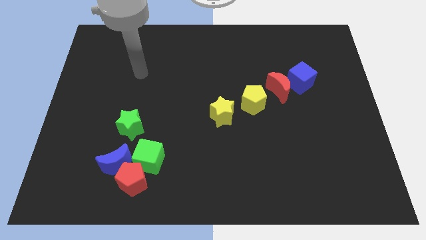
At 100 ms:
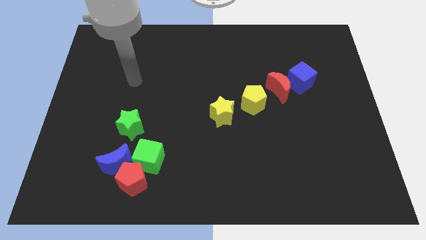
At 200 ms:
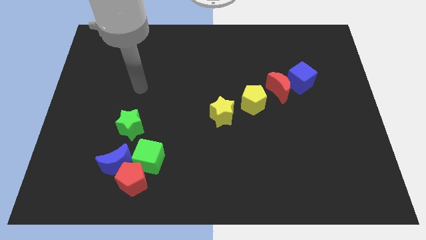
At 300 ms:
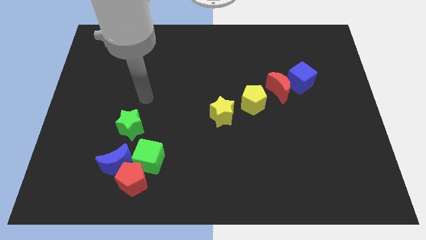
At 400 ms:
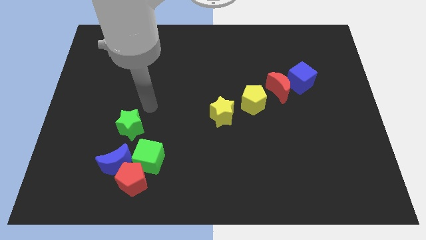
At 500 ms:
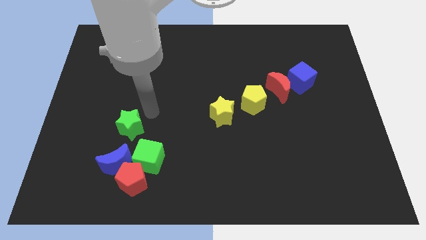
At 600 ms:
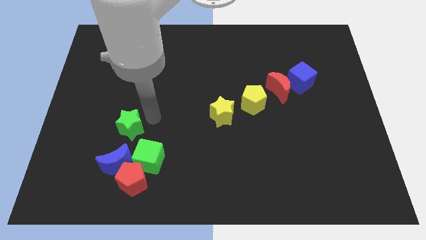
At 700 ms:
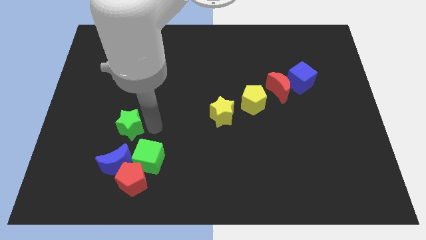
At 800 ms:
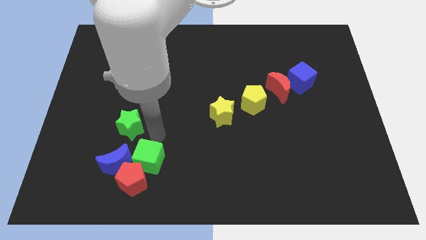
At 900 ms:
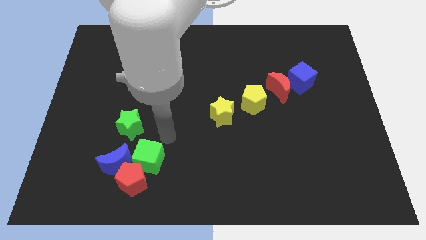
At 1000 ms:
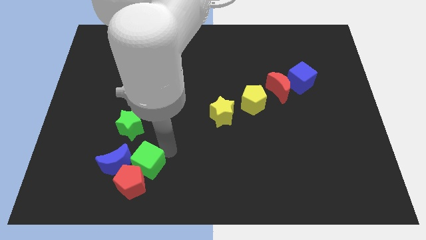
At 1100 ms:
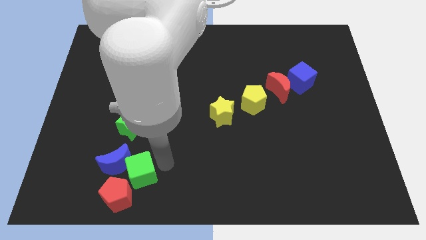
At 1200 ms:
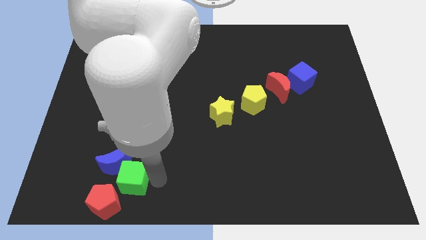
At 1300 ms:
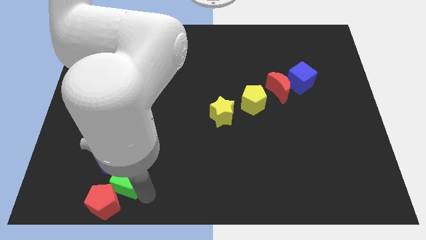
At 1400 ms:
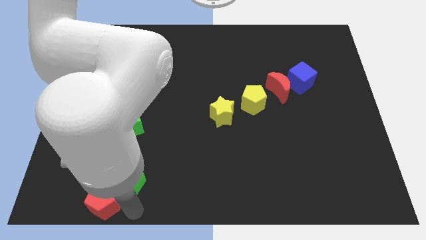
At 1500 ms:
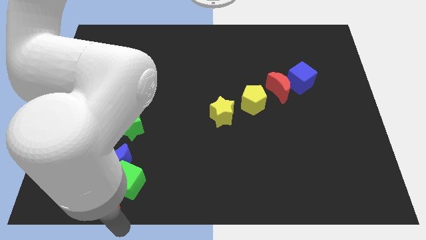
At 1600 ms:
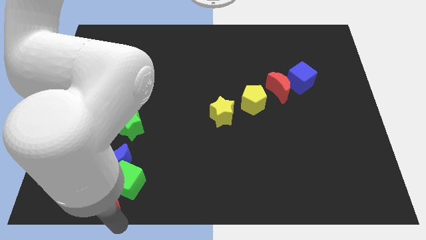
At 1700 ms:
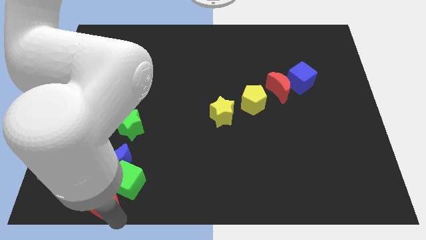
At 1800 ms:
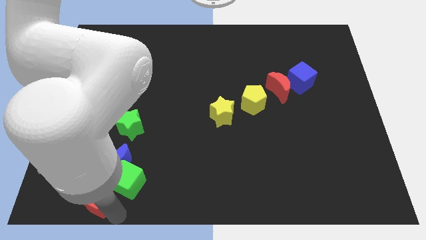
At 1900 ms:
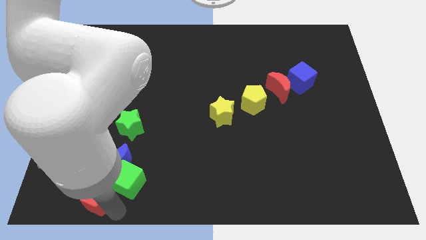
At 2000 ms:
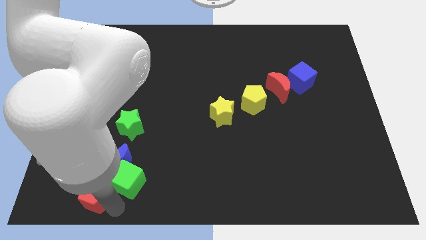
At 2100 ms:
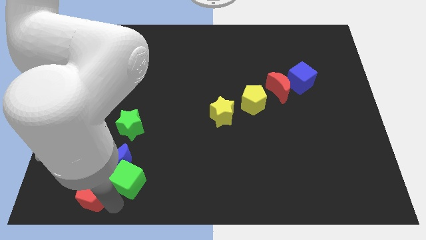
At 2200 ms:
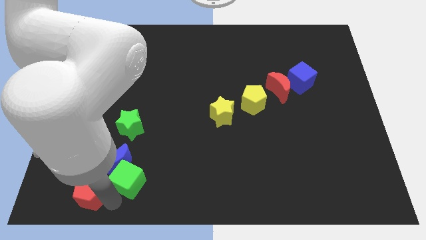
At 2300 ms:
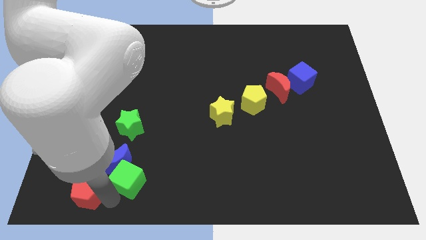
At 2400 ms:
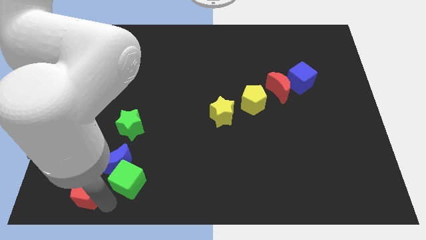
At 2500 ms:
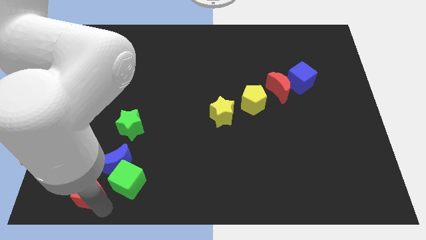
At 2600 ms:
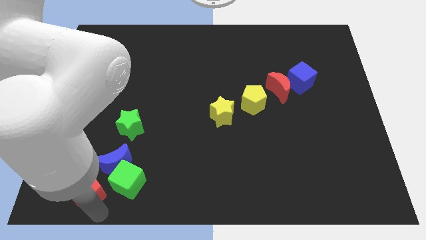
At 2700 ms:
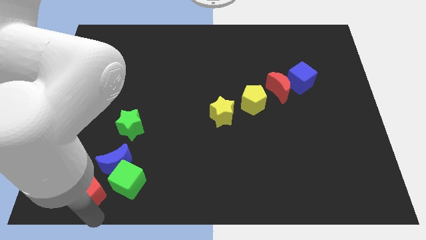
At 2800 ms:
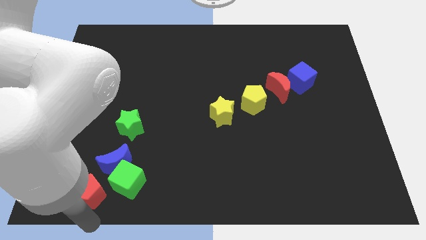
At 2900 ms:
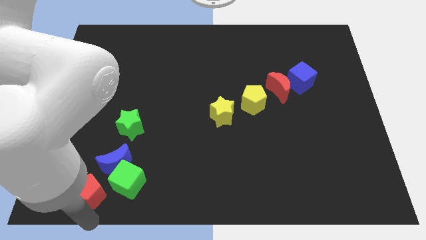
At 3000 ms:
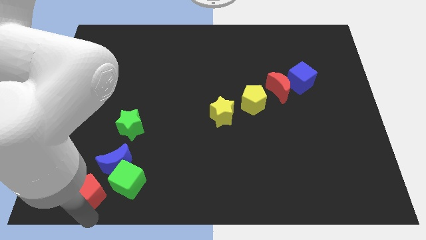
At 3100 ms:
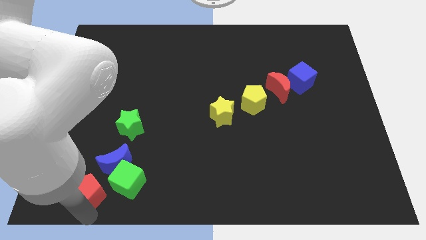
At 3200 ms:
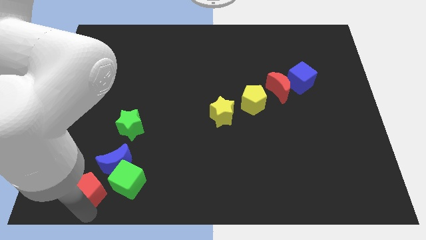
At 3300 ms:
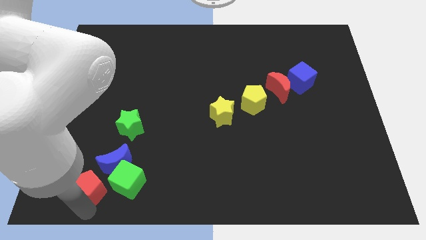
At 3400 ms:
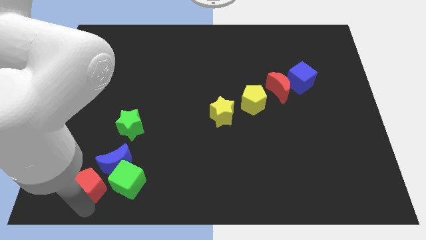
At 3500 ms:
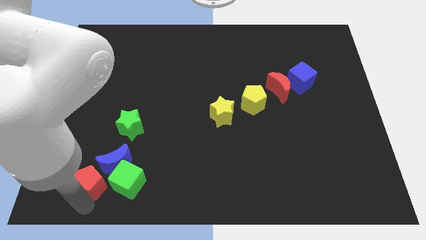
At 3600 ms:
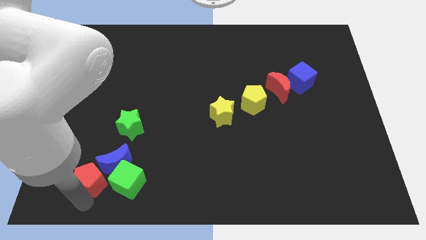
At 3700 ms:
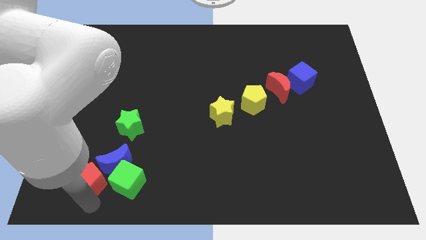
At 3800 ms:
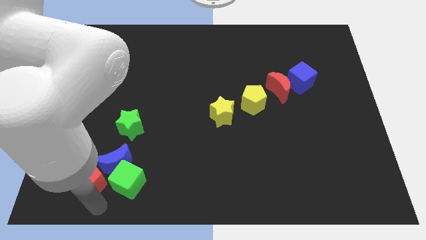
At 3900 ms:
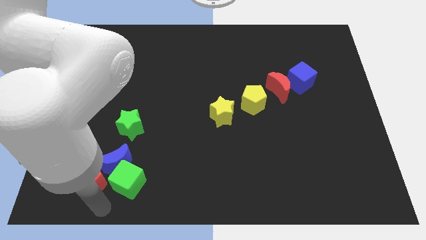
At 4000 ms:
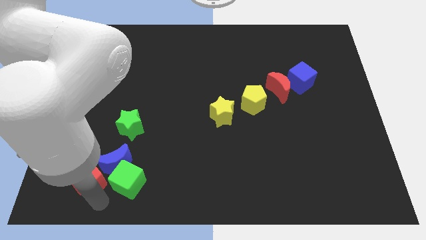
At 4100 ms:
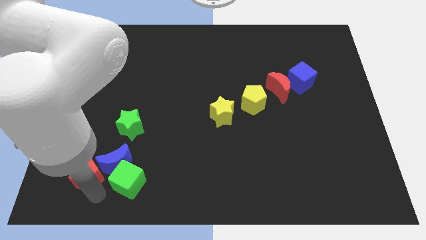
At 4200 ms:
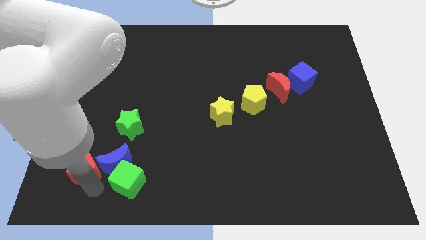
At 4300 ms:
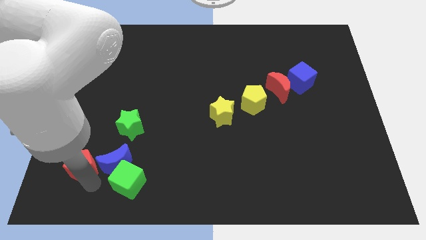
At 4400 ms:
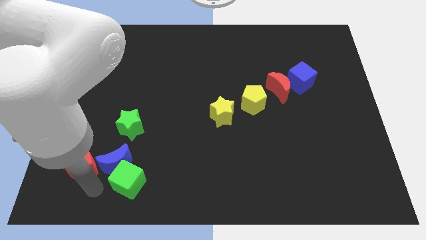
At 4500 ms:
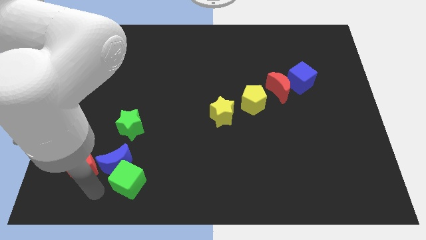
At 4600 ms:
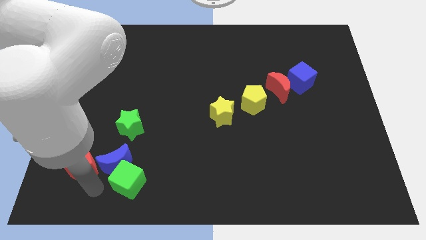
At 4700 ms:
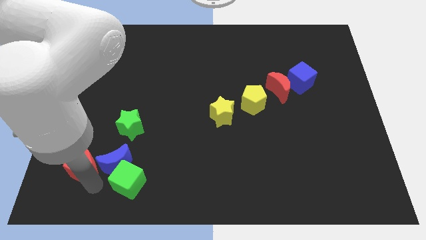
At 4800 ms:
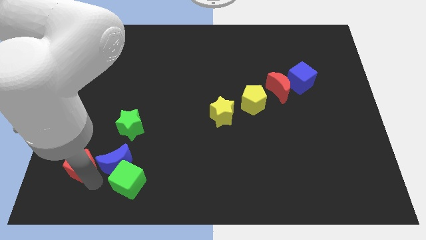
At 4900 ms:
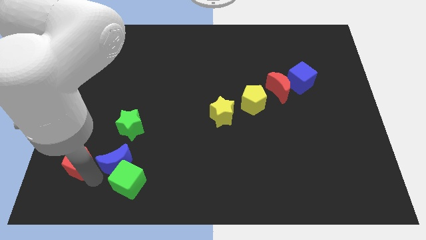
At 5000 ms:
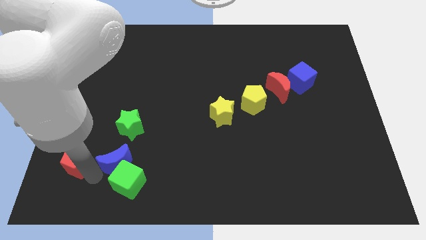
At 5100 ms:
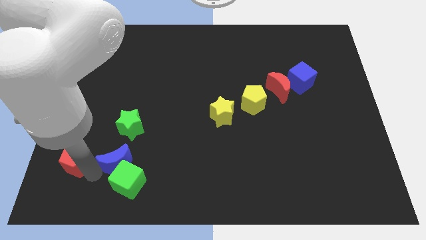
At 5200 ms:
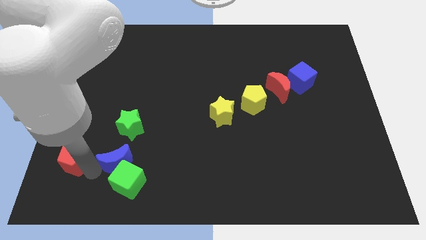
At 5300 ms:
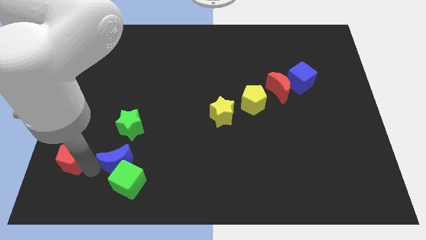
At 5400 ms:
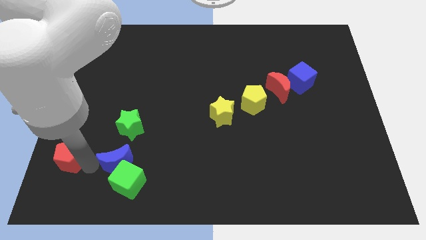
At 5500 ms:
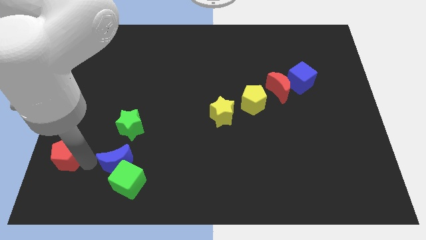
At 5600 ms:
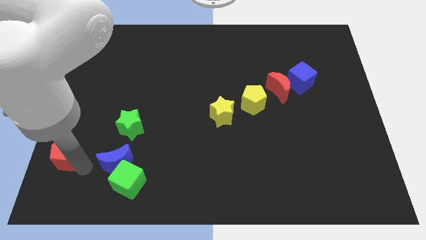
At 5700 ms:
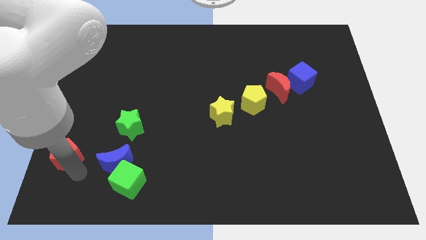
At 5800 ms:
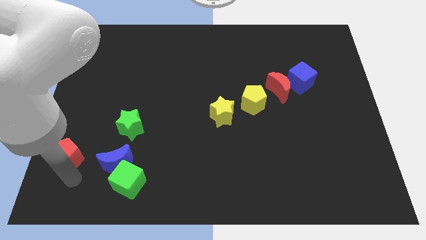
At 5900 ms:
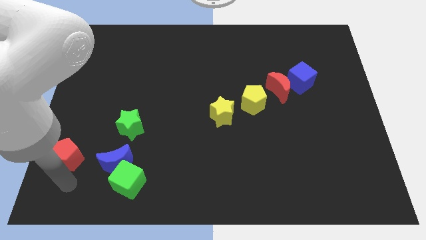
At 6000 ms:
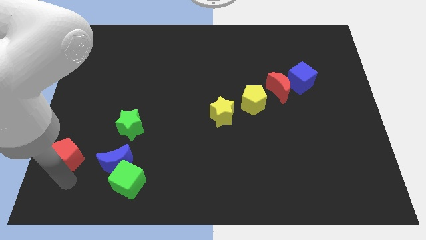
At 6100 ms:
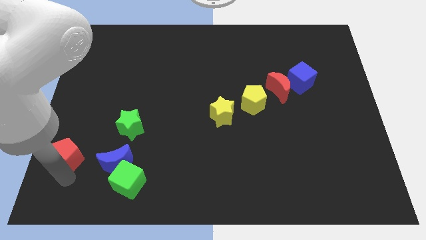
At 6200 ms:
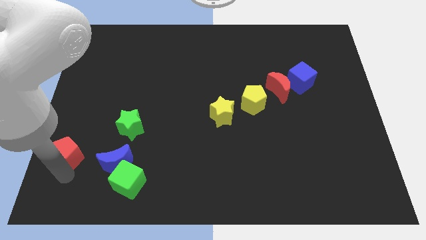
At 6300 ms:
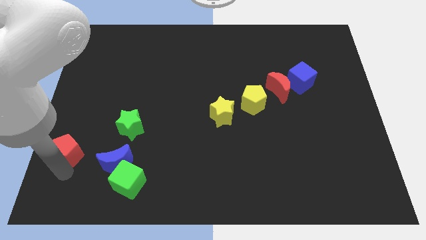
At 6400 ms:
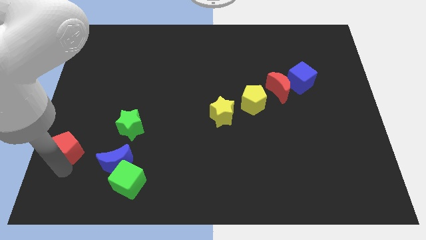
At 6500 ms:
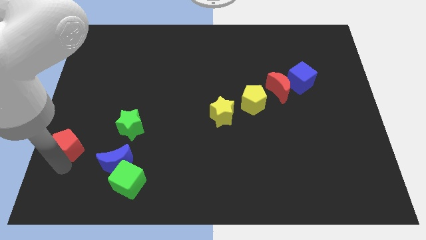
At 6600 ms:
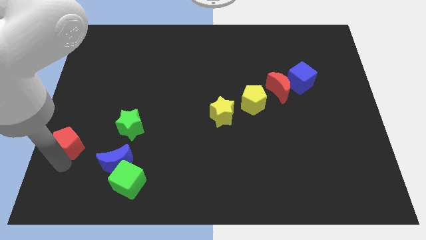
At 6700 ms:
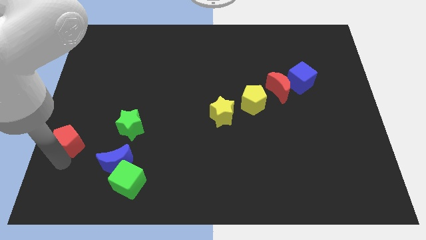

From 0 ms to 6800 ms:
slide the red pentagon to the left side of the board
